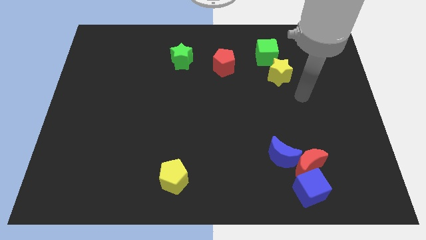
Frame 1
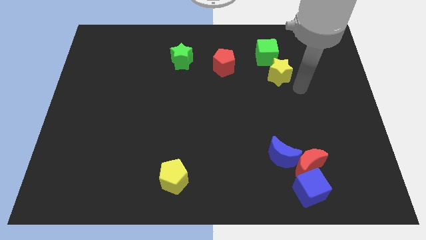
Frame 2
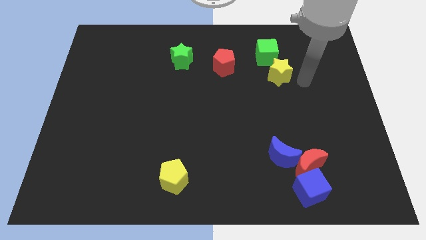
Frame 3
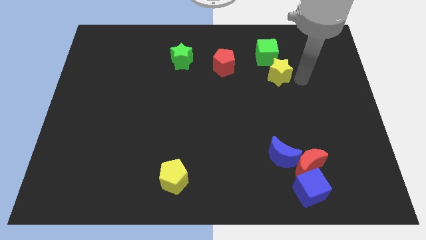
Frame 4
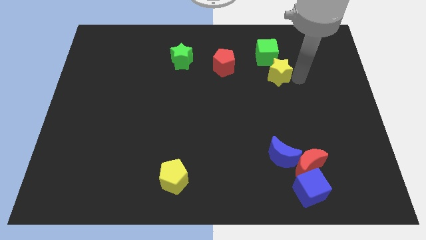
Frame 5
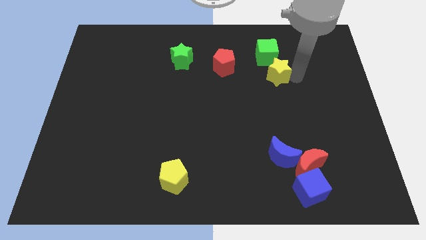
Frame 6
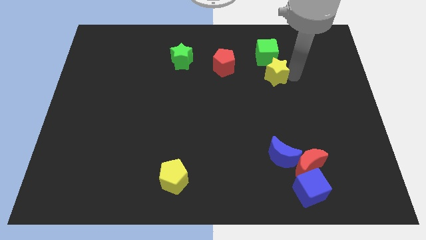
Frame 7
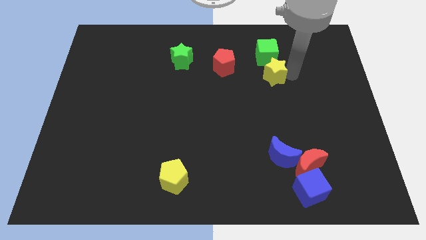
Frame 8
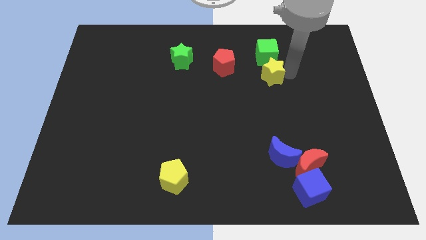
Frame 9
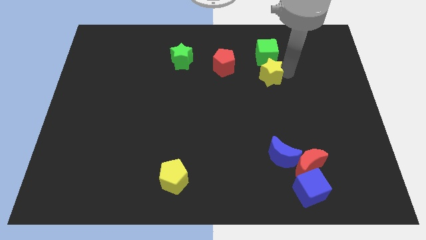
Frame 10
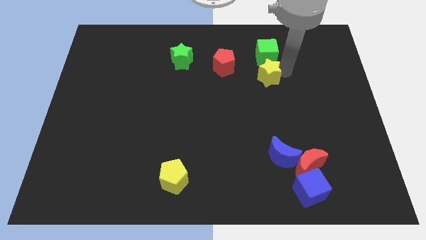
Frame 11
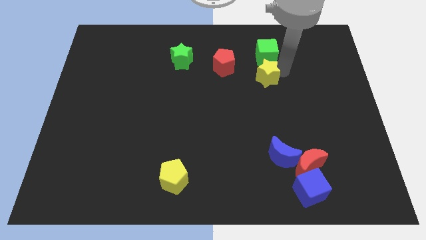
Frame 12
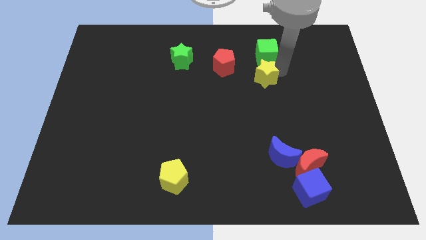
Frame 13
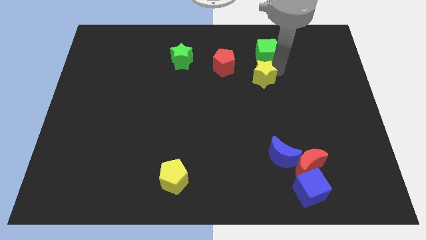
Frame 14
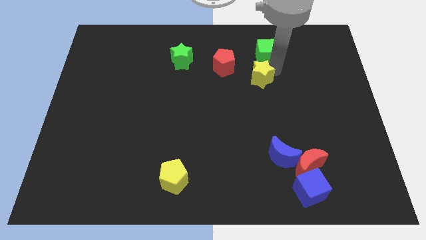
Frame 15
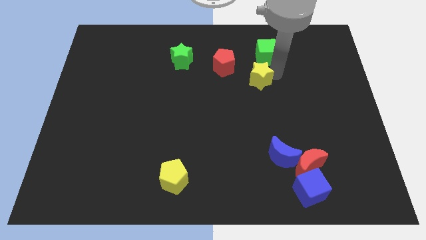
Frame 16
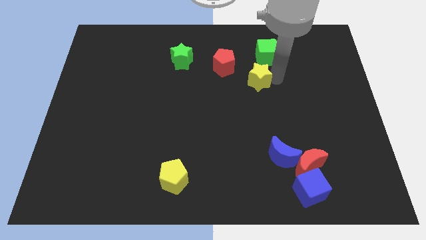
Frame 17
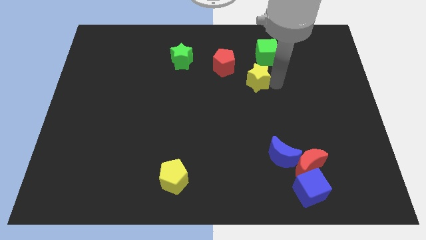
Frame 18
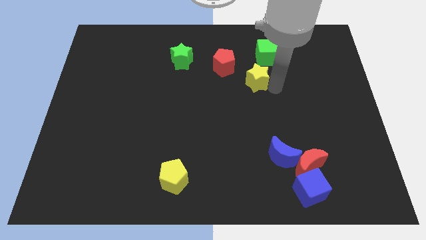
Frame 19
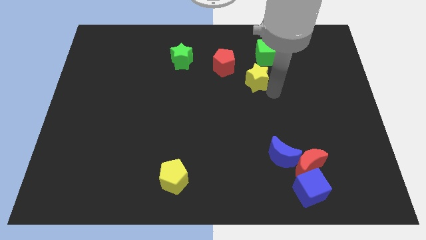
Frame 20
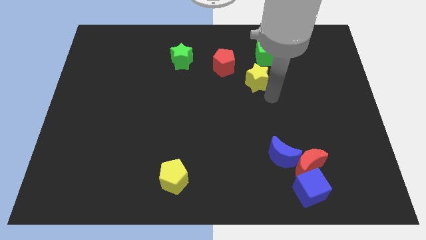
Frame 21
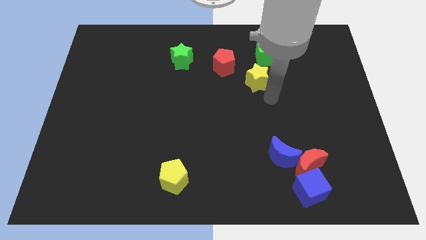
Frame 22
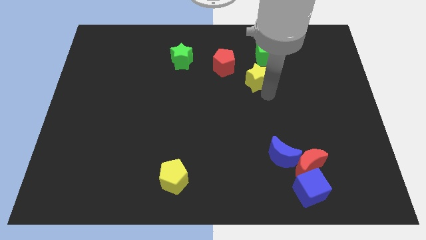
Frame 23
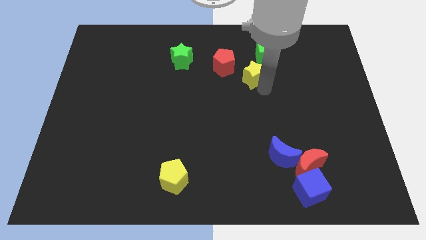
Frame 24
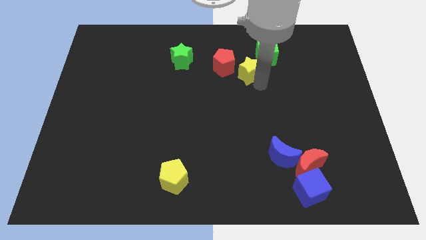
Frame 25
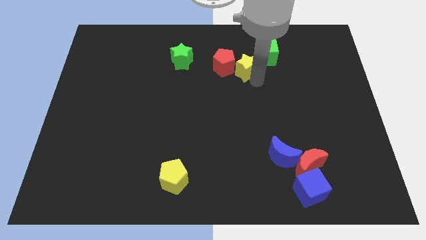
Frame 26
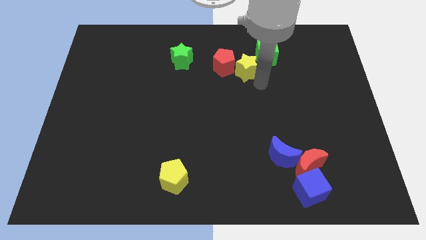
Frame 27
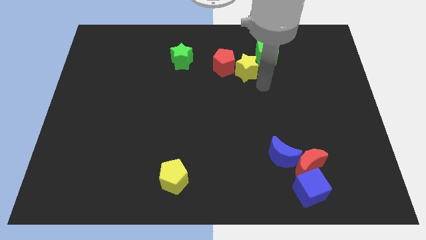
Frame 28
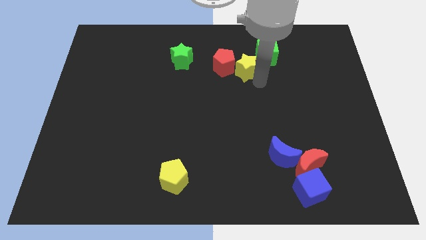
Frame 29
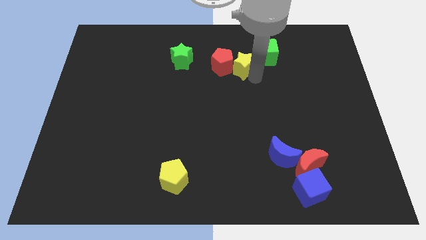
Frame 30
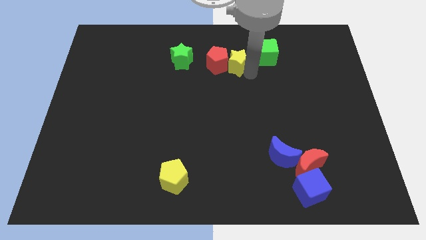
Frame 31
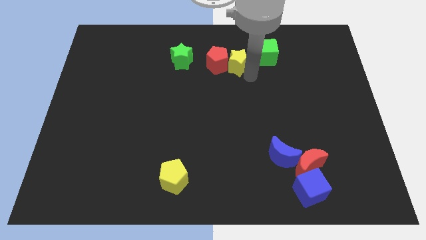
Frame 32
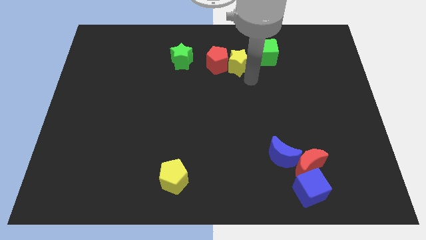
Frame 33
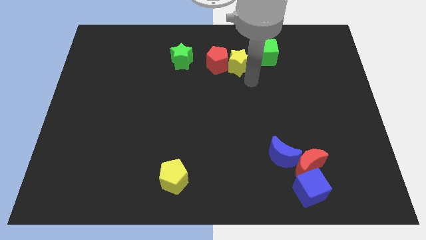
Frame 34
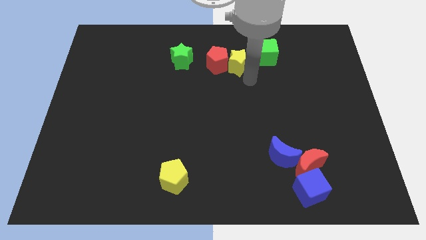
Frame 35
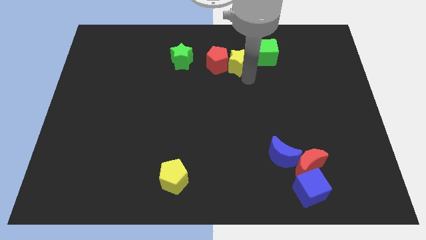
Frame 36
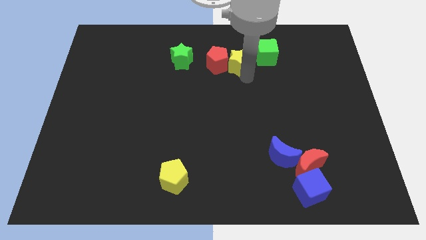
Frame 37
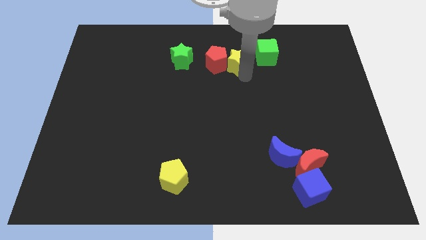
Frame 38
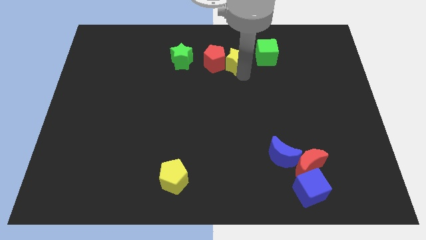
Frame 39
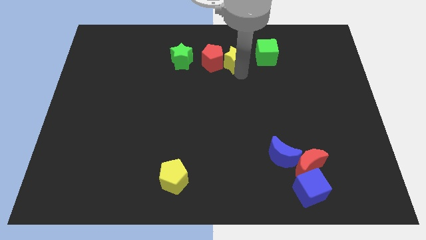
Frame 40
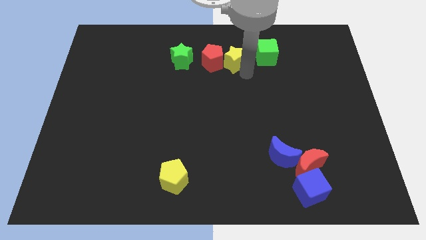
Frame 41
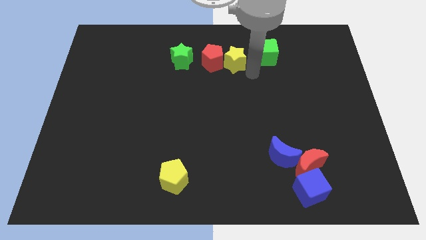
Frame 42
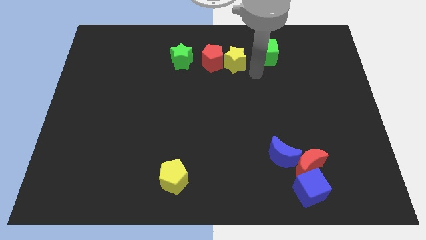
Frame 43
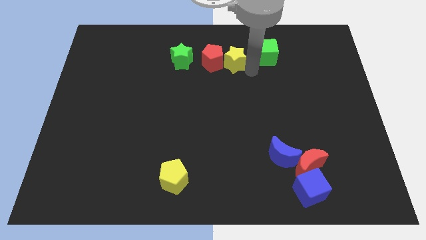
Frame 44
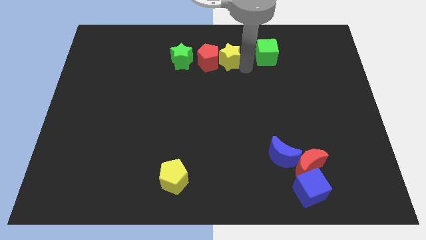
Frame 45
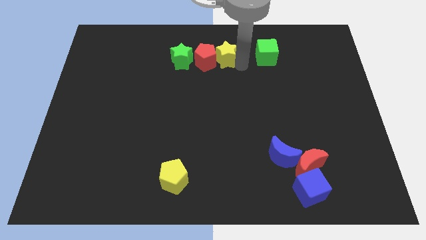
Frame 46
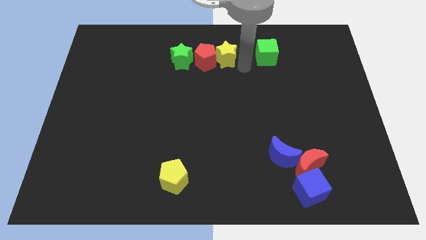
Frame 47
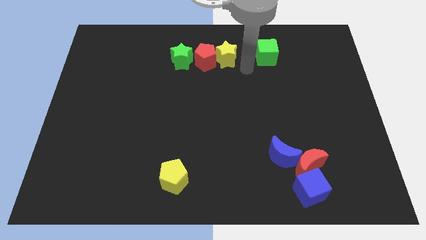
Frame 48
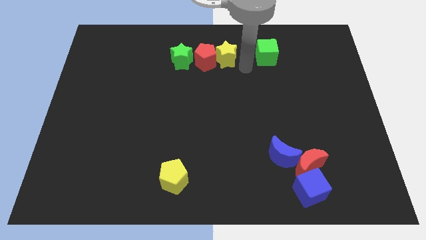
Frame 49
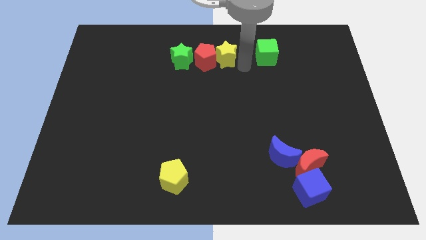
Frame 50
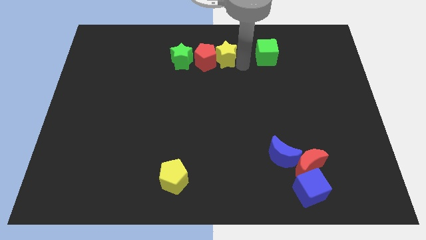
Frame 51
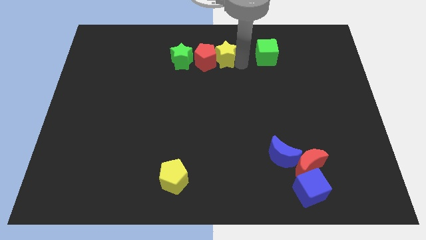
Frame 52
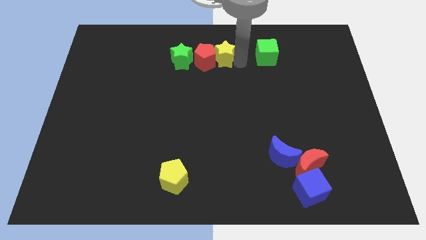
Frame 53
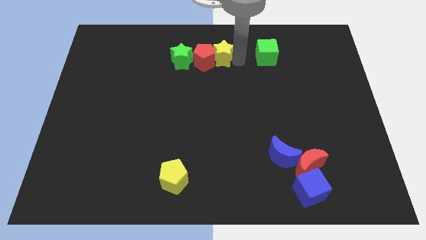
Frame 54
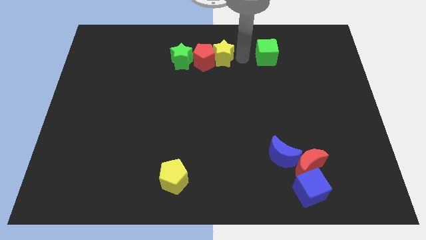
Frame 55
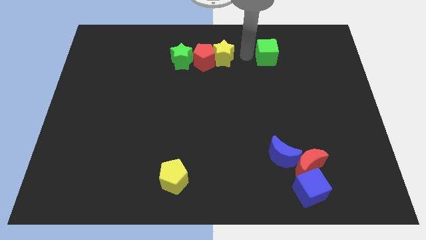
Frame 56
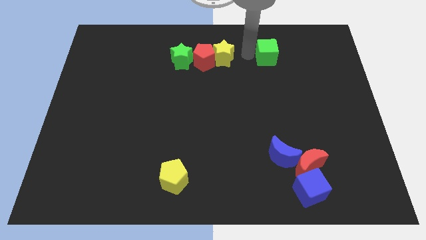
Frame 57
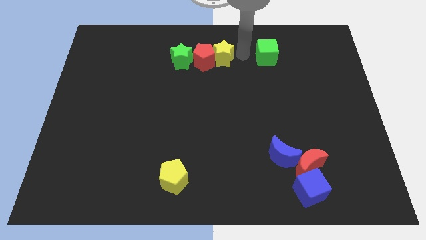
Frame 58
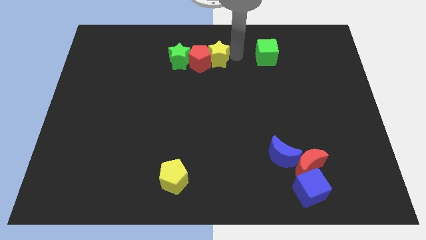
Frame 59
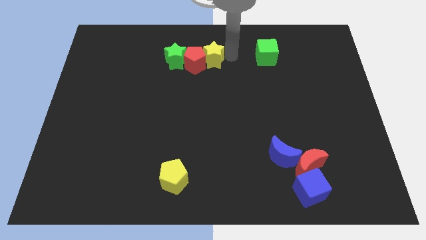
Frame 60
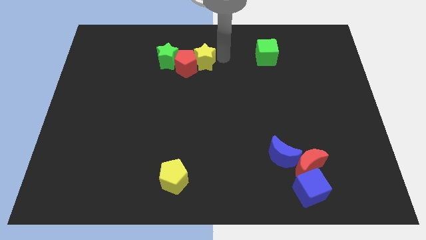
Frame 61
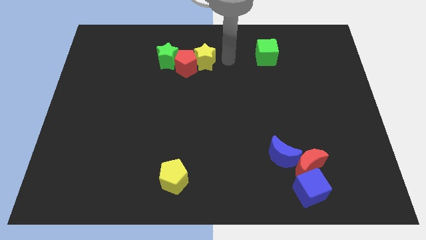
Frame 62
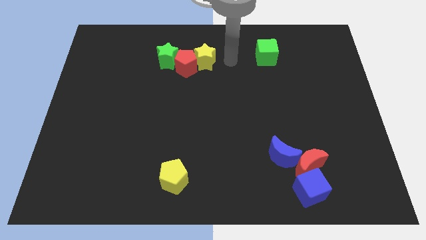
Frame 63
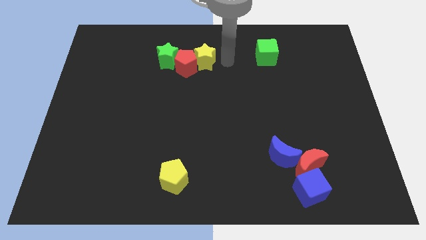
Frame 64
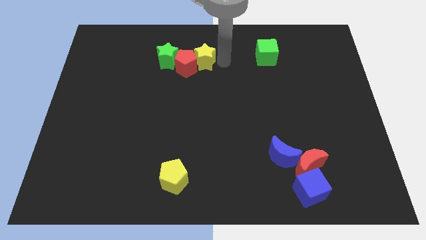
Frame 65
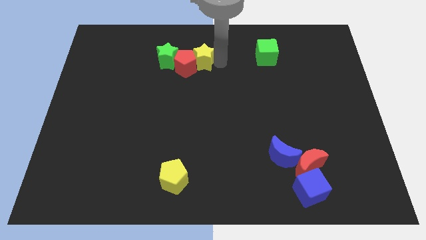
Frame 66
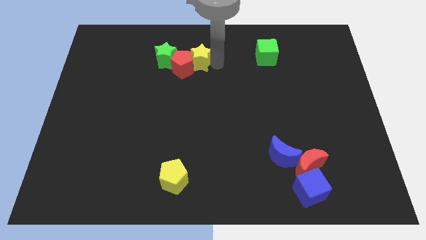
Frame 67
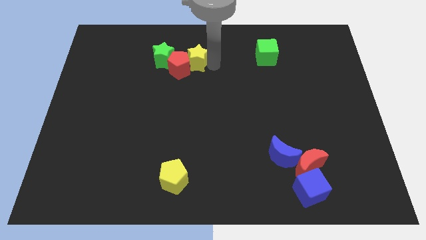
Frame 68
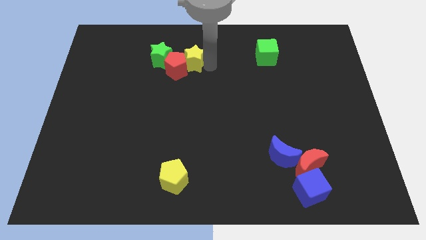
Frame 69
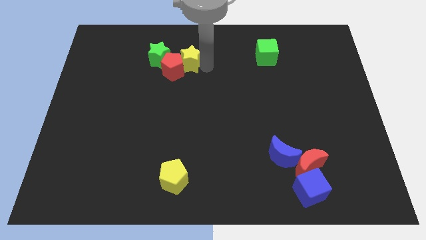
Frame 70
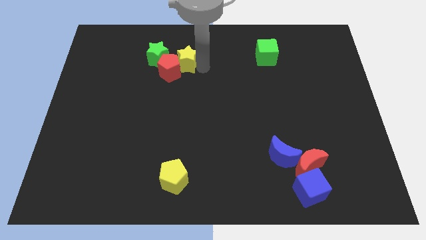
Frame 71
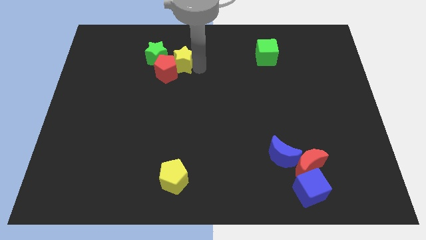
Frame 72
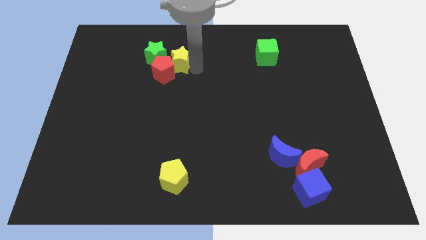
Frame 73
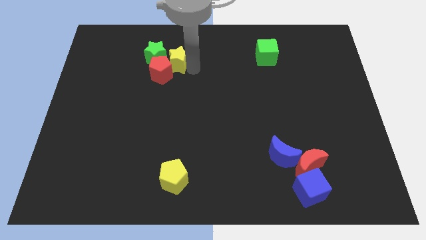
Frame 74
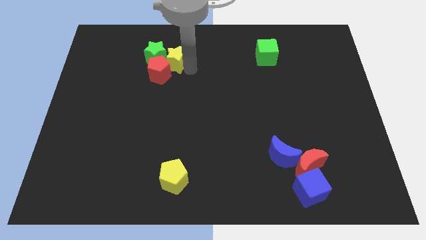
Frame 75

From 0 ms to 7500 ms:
put the yellow star to the green star
